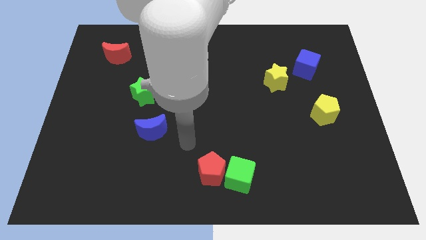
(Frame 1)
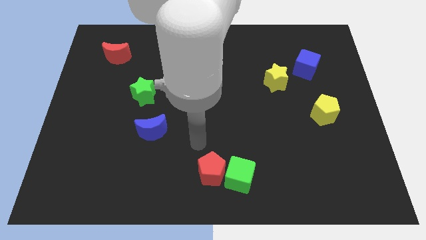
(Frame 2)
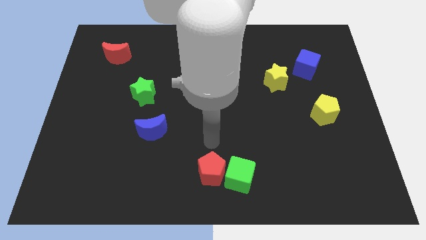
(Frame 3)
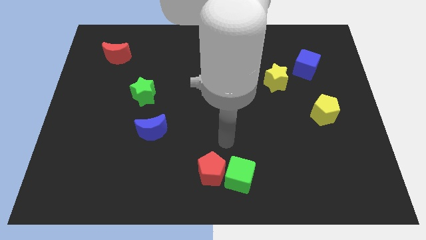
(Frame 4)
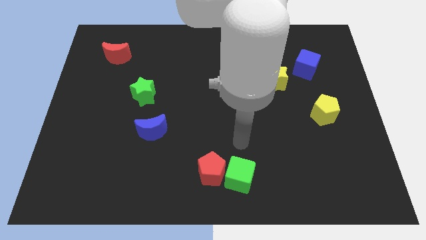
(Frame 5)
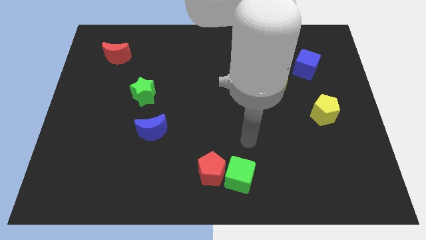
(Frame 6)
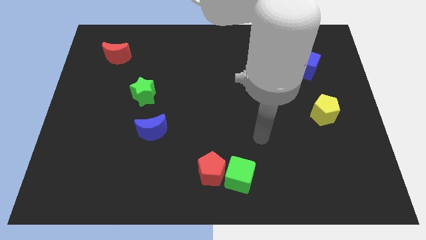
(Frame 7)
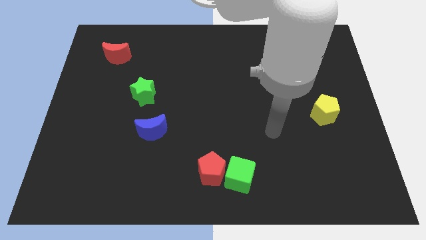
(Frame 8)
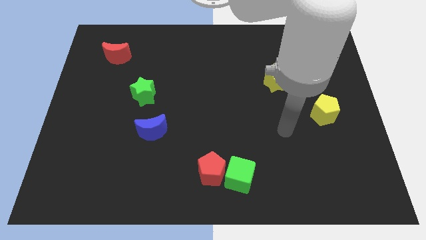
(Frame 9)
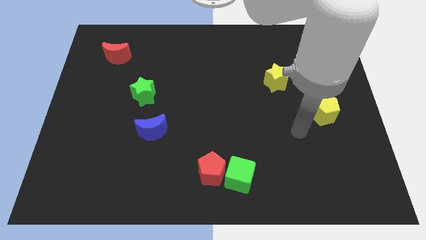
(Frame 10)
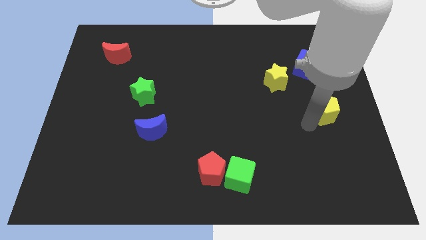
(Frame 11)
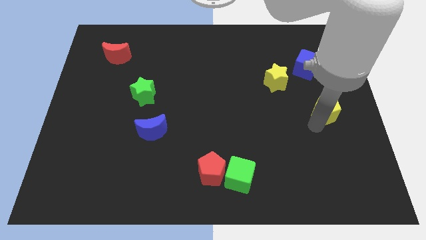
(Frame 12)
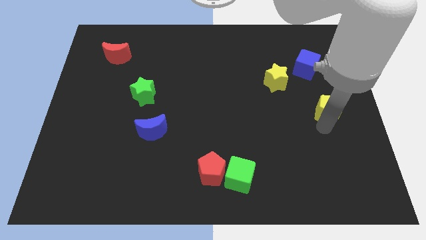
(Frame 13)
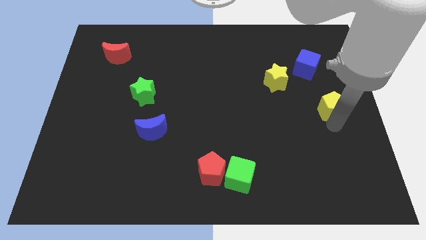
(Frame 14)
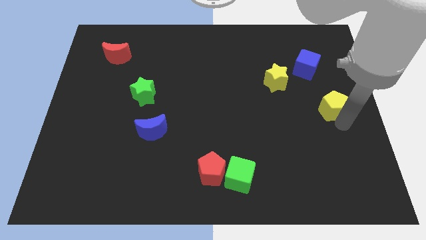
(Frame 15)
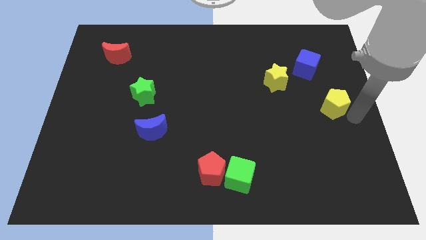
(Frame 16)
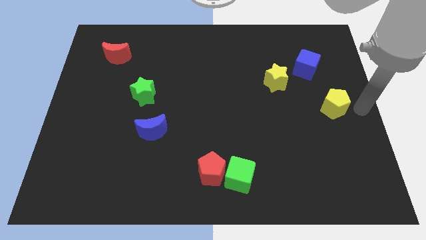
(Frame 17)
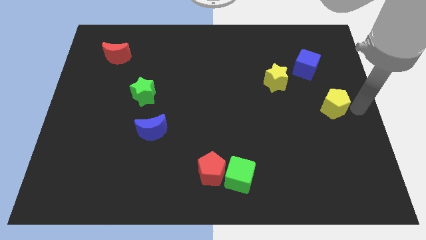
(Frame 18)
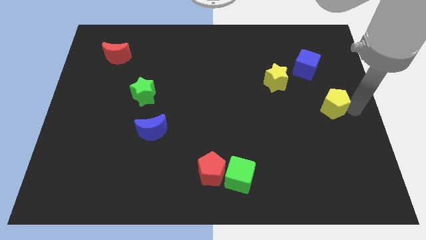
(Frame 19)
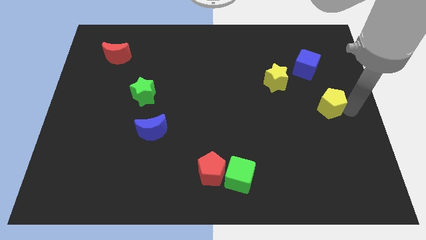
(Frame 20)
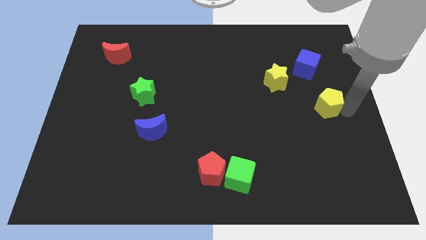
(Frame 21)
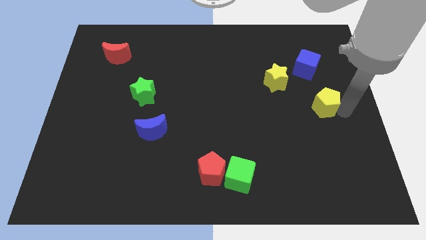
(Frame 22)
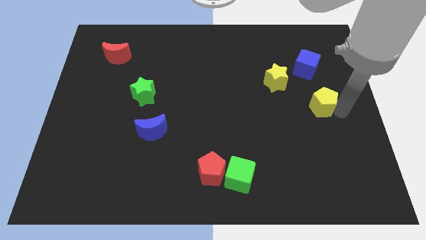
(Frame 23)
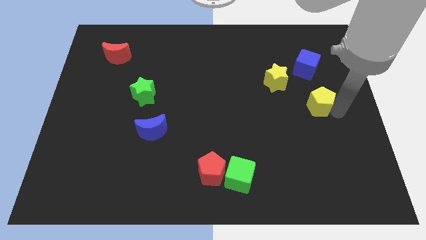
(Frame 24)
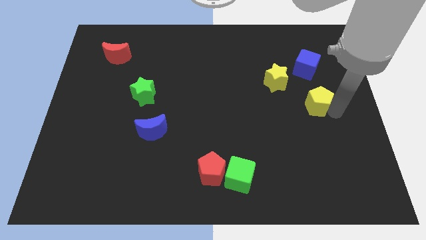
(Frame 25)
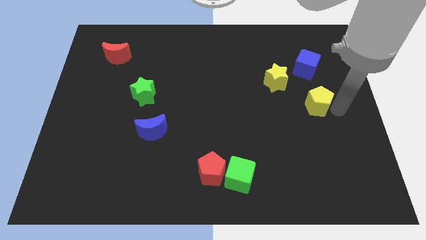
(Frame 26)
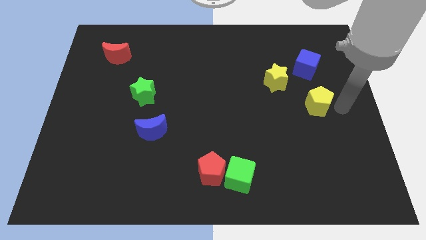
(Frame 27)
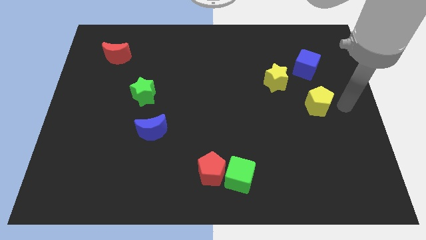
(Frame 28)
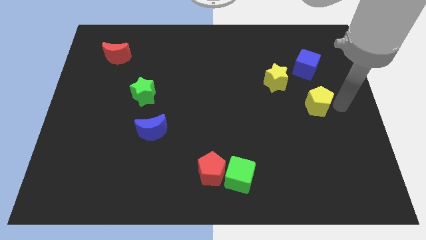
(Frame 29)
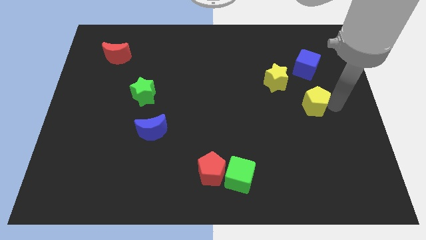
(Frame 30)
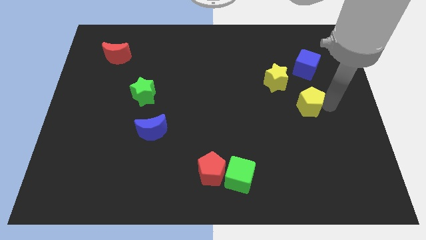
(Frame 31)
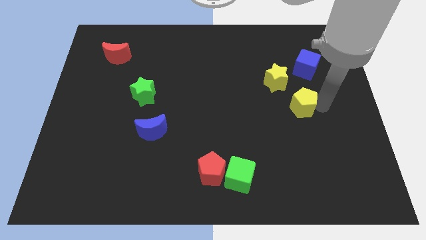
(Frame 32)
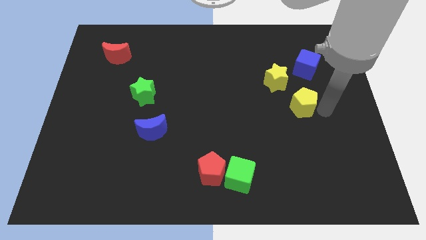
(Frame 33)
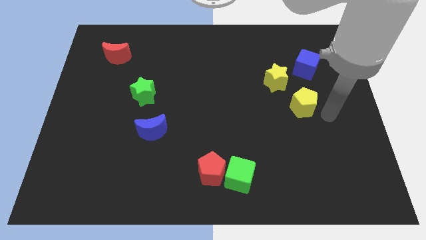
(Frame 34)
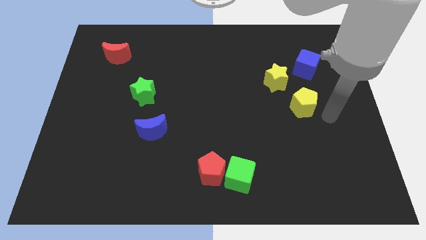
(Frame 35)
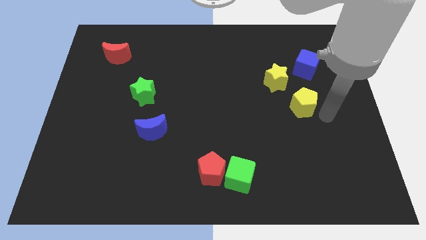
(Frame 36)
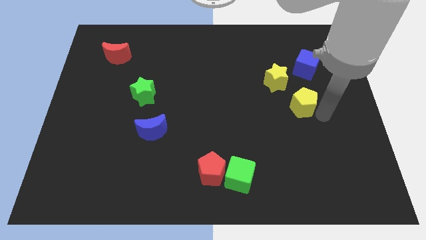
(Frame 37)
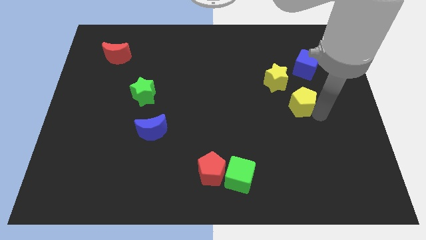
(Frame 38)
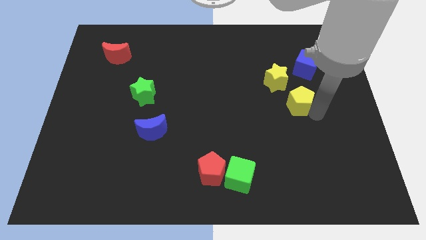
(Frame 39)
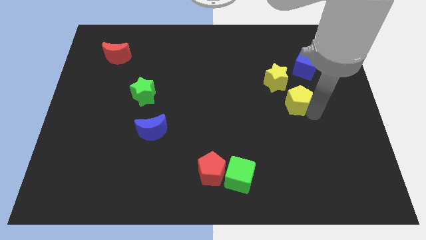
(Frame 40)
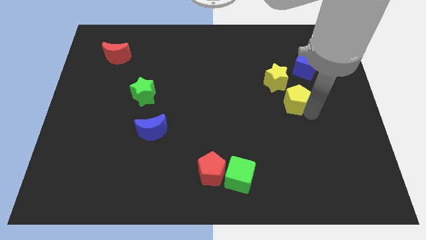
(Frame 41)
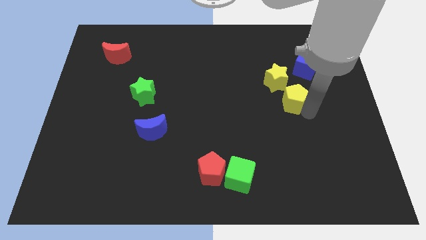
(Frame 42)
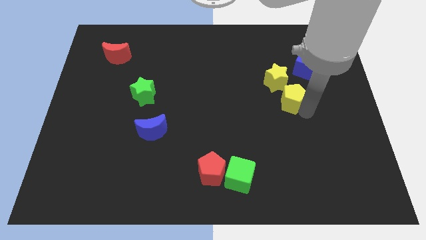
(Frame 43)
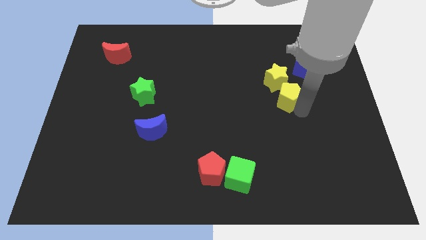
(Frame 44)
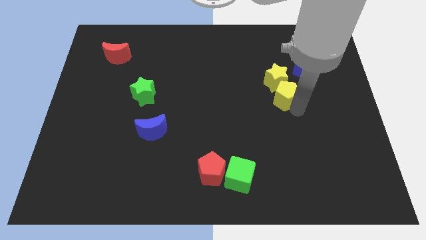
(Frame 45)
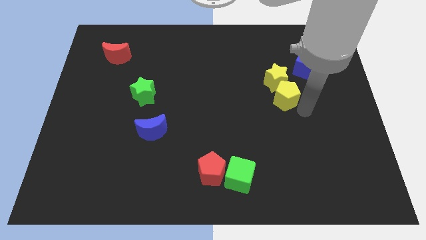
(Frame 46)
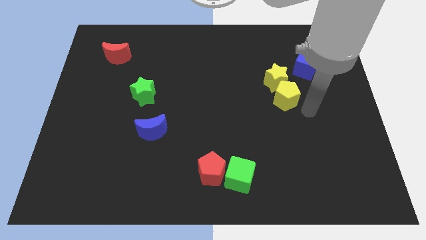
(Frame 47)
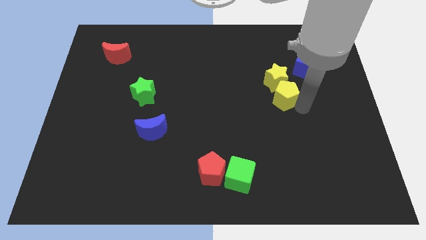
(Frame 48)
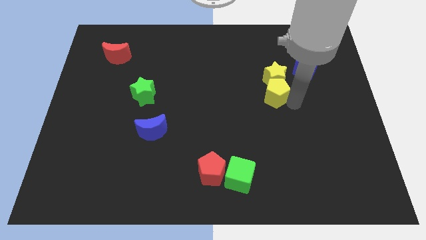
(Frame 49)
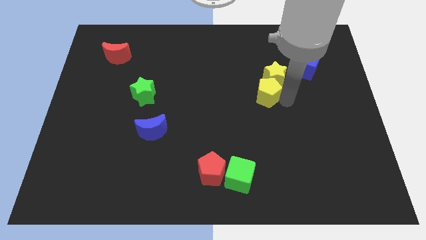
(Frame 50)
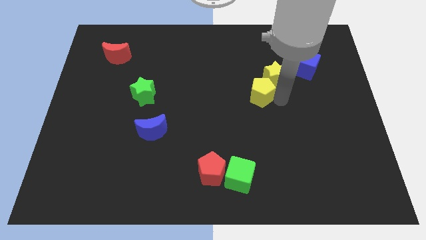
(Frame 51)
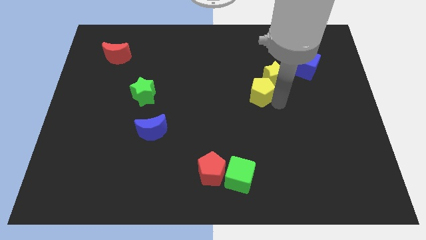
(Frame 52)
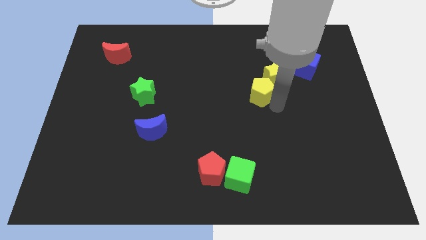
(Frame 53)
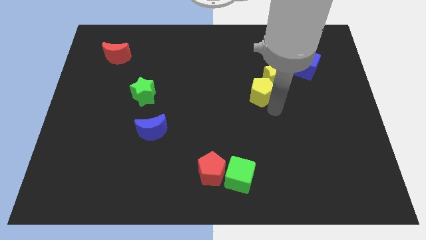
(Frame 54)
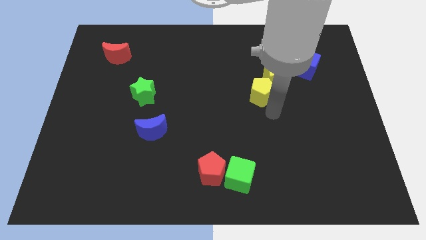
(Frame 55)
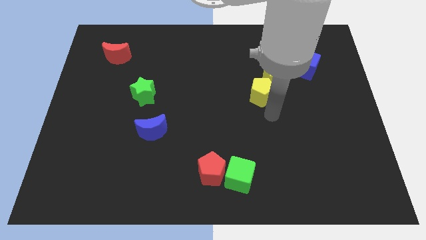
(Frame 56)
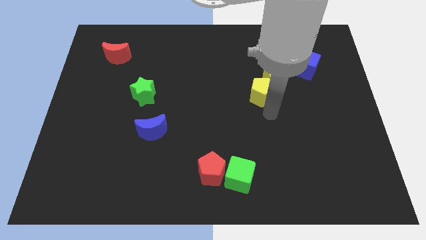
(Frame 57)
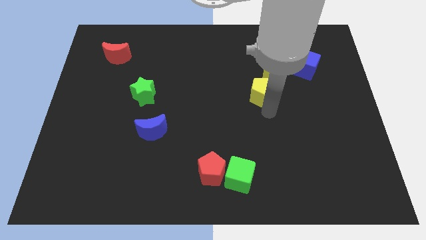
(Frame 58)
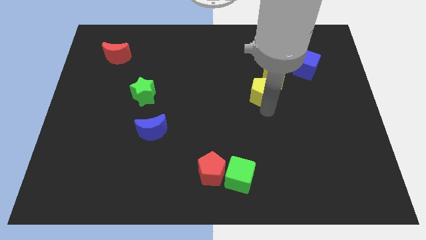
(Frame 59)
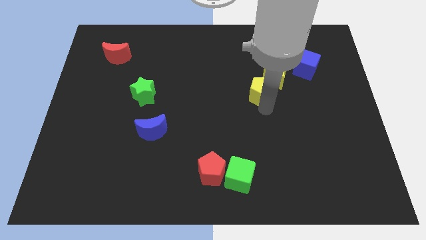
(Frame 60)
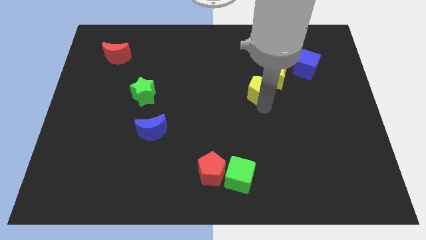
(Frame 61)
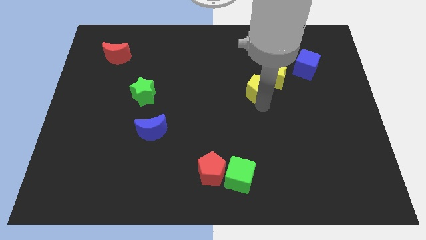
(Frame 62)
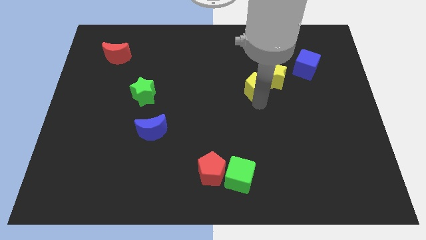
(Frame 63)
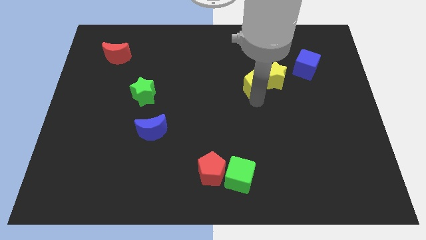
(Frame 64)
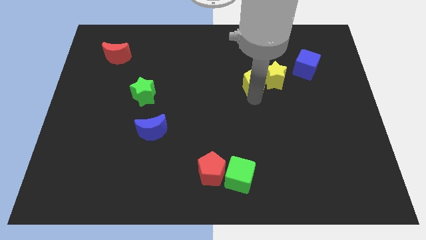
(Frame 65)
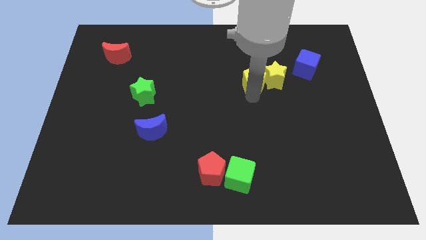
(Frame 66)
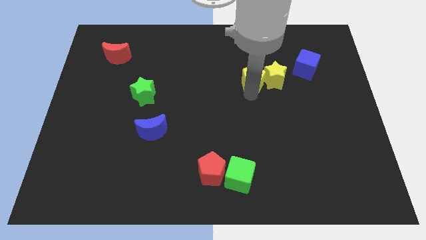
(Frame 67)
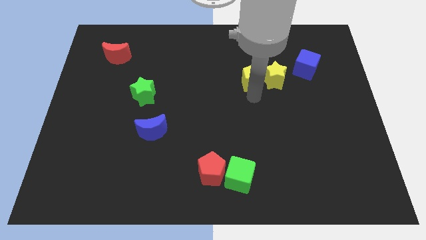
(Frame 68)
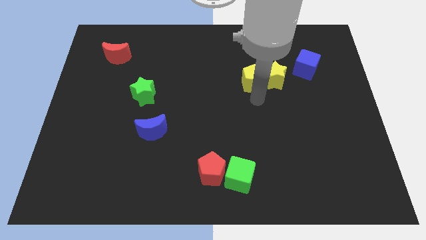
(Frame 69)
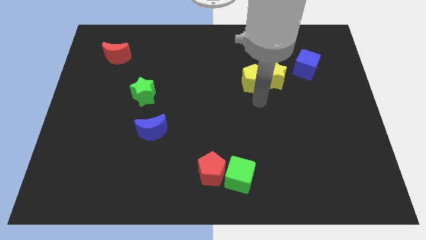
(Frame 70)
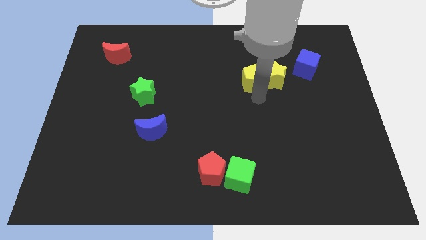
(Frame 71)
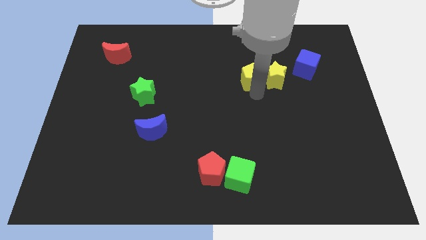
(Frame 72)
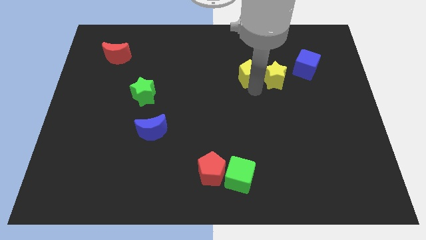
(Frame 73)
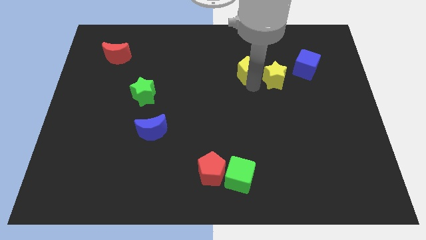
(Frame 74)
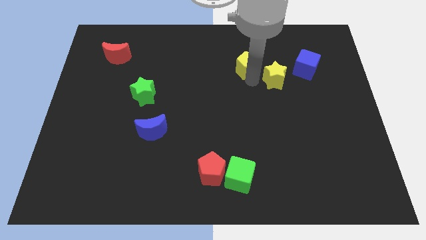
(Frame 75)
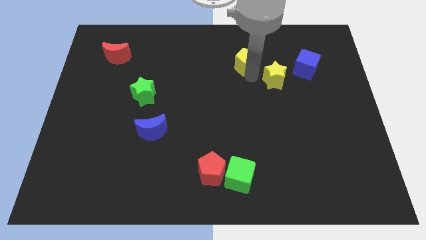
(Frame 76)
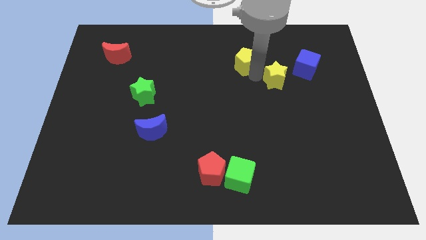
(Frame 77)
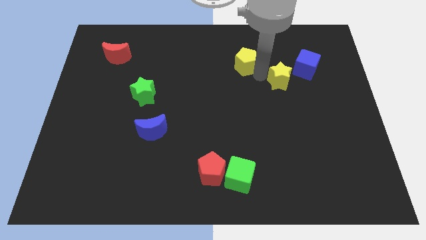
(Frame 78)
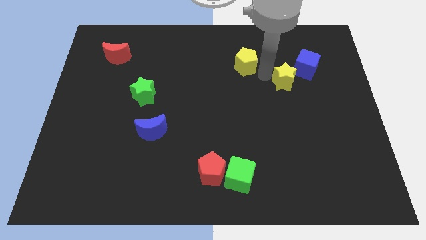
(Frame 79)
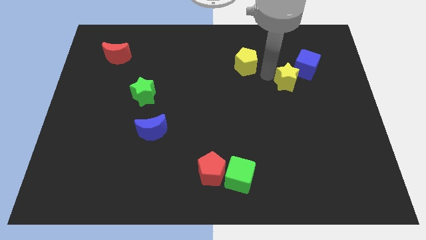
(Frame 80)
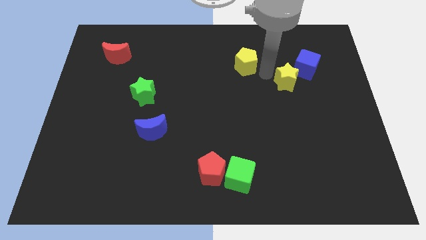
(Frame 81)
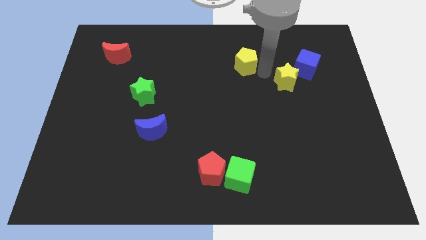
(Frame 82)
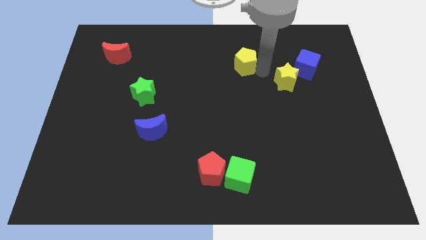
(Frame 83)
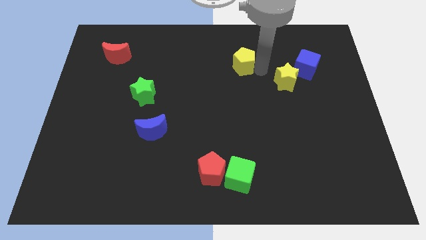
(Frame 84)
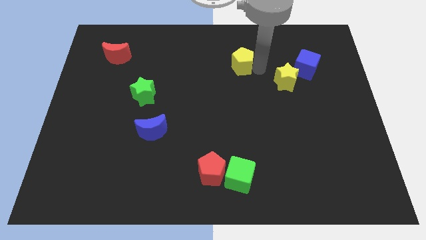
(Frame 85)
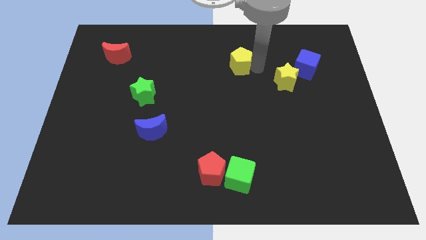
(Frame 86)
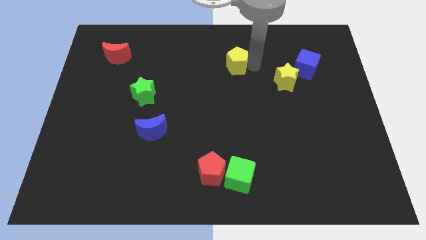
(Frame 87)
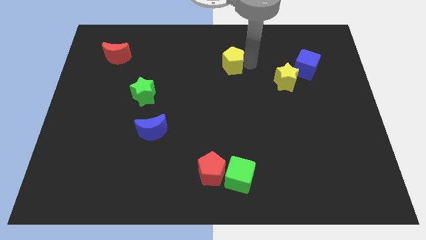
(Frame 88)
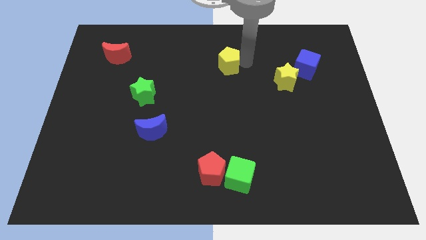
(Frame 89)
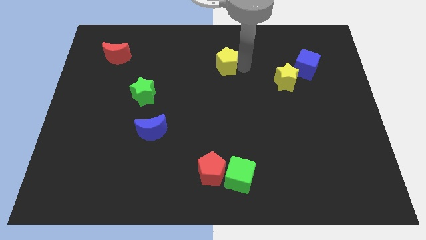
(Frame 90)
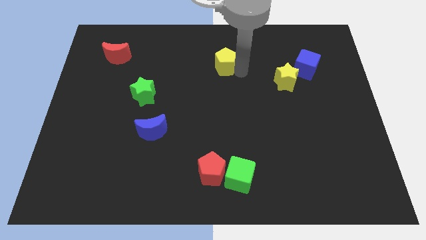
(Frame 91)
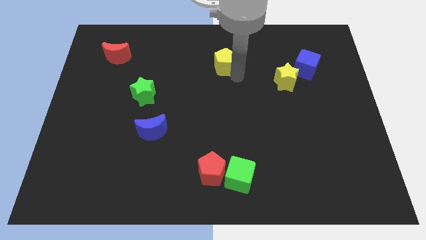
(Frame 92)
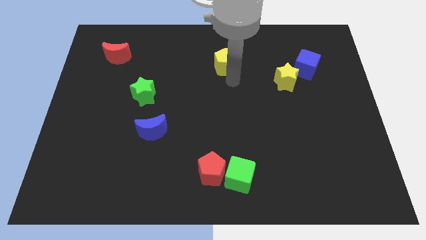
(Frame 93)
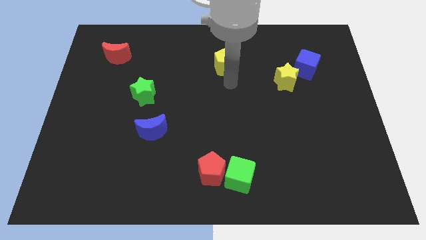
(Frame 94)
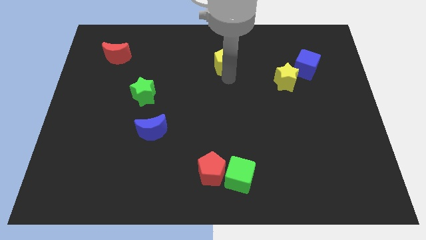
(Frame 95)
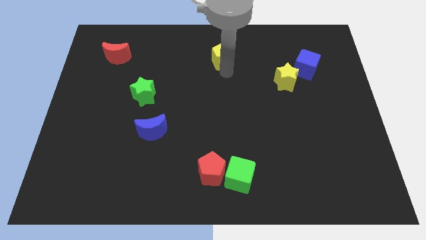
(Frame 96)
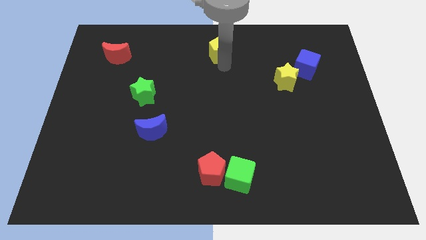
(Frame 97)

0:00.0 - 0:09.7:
put the yellow pentagon to the top
